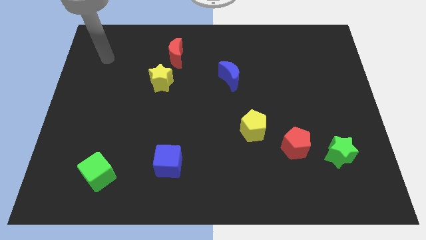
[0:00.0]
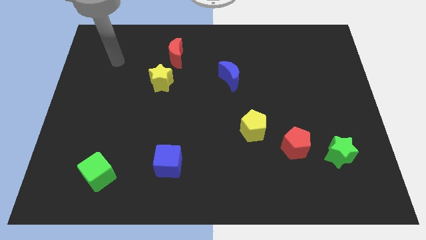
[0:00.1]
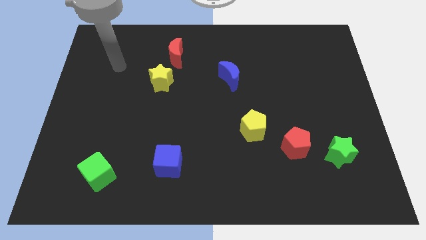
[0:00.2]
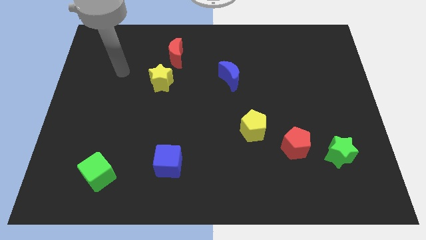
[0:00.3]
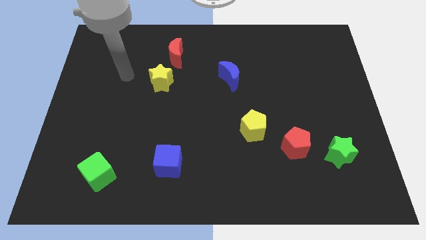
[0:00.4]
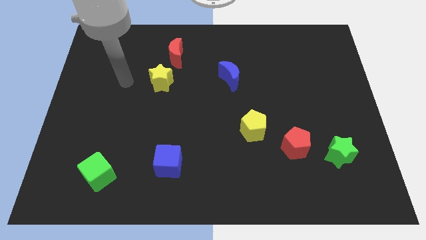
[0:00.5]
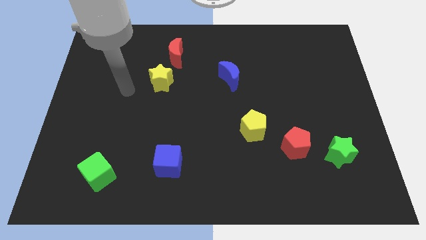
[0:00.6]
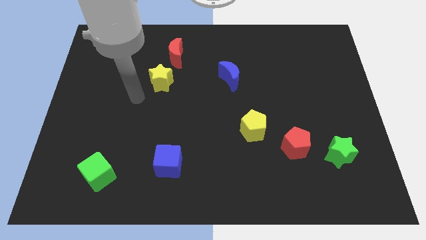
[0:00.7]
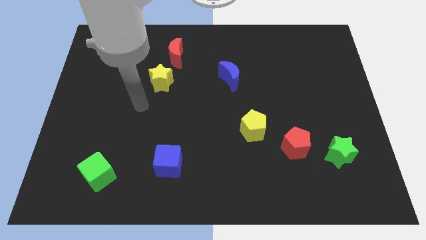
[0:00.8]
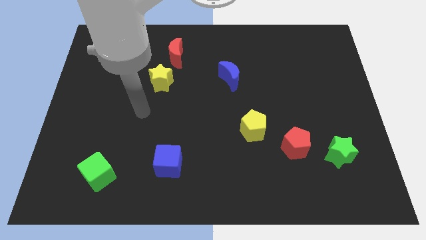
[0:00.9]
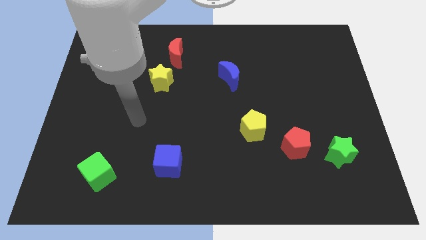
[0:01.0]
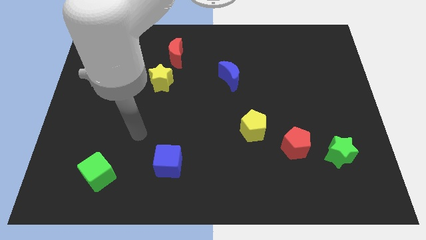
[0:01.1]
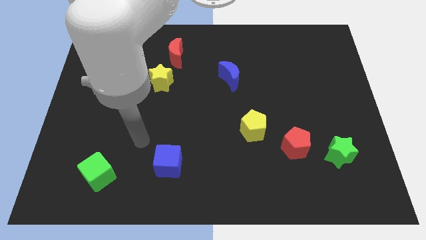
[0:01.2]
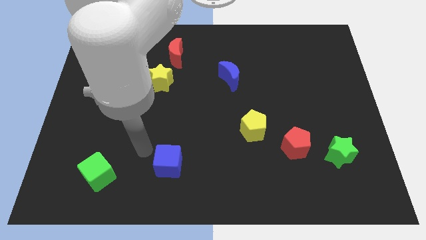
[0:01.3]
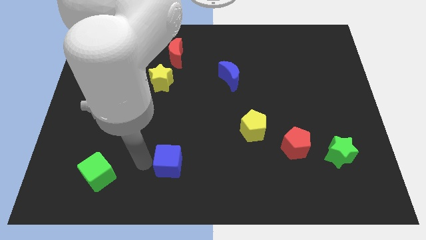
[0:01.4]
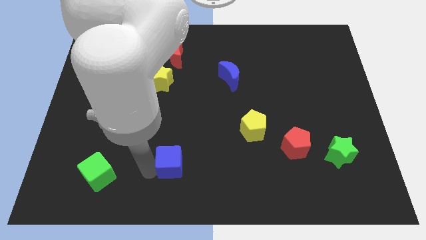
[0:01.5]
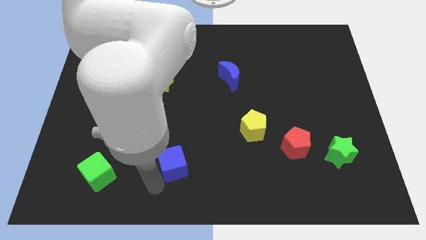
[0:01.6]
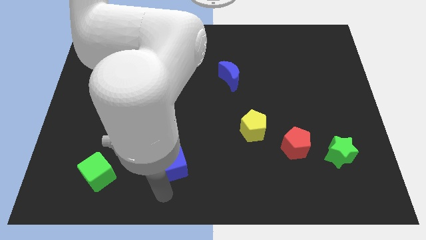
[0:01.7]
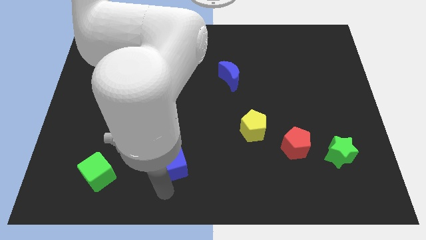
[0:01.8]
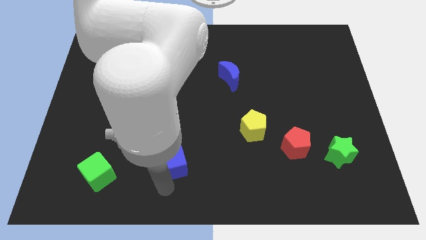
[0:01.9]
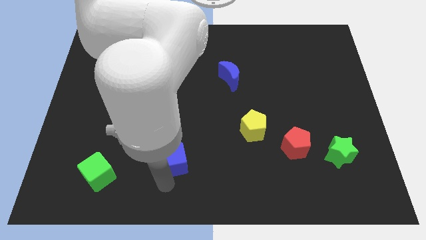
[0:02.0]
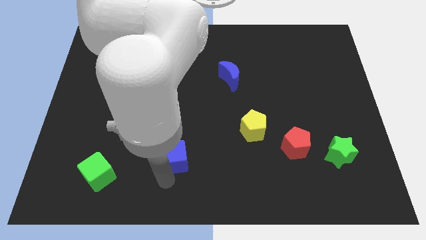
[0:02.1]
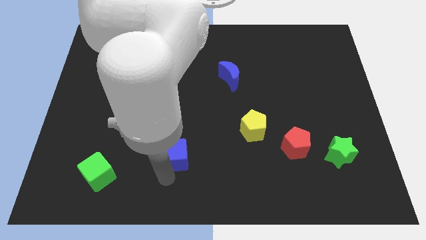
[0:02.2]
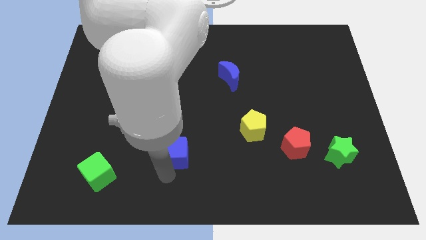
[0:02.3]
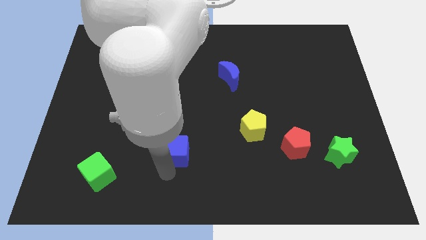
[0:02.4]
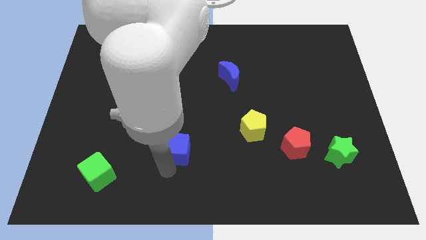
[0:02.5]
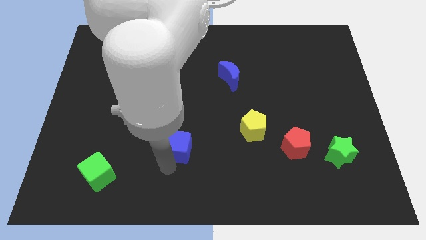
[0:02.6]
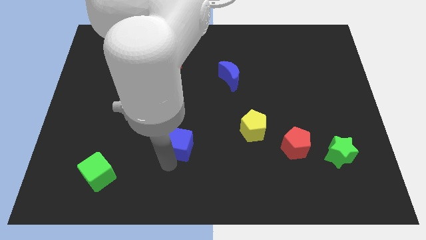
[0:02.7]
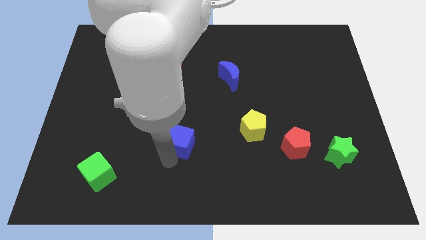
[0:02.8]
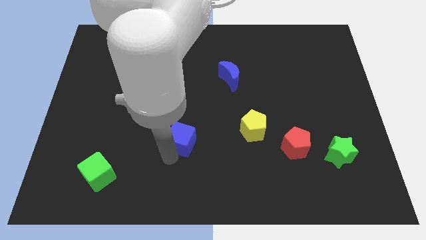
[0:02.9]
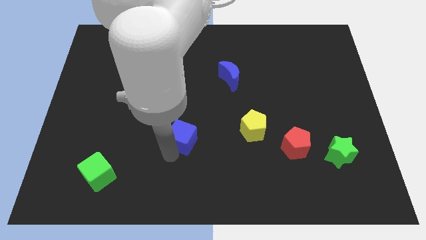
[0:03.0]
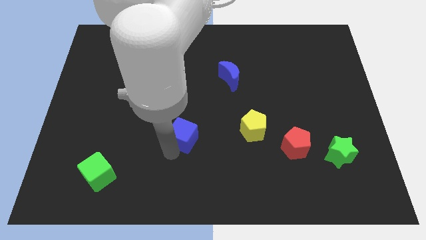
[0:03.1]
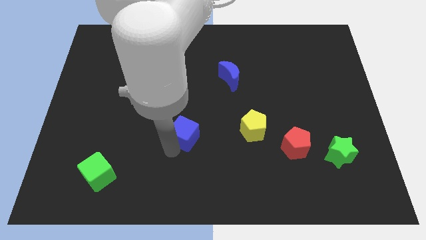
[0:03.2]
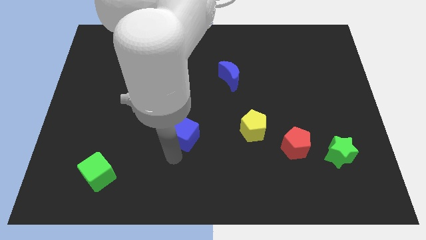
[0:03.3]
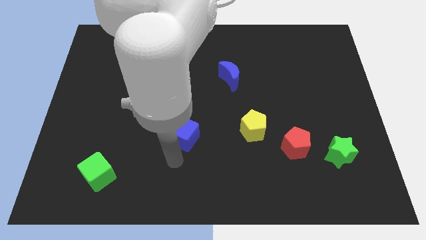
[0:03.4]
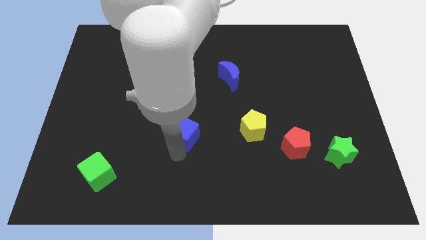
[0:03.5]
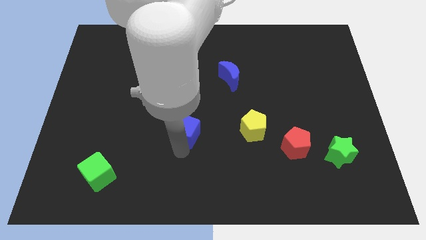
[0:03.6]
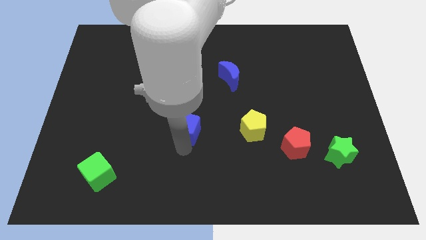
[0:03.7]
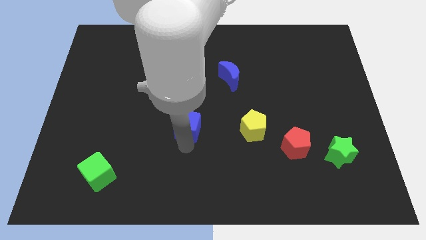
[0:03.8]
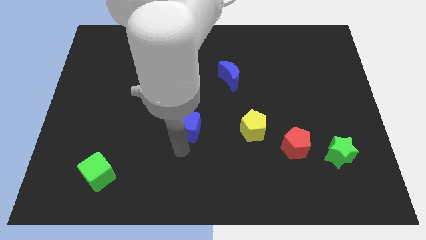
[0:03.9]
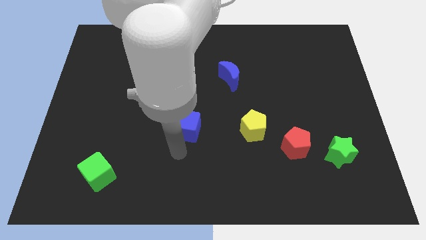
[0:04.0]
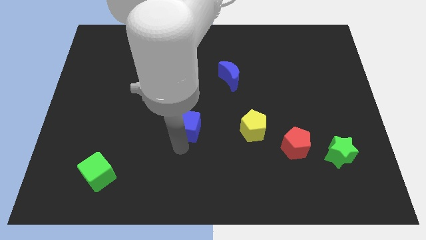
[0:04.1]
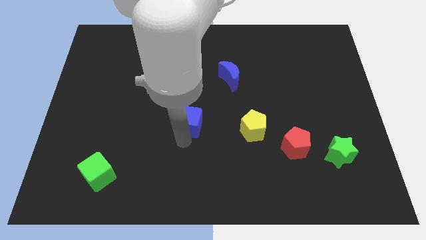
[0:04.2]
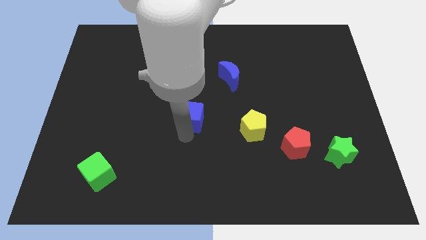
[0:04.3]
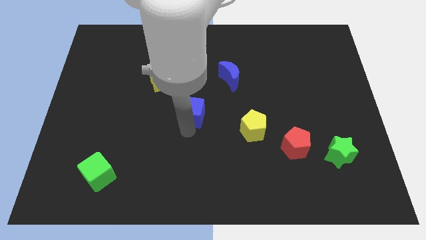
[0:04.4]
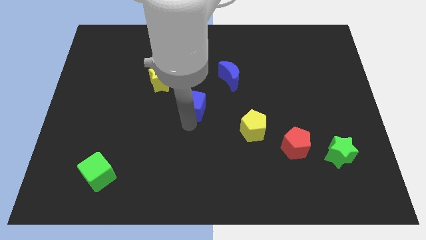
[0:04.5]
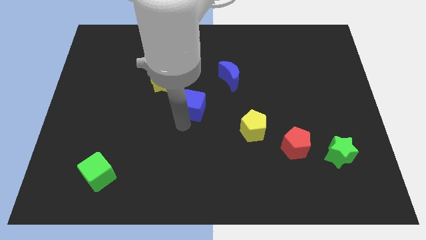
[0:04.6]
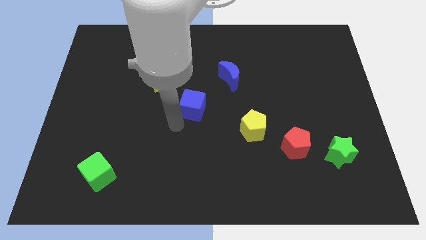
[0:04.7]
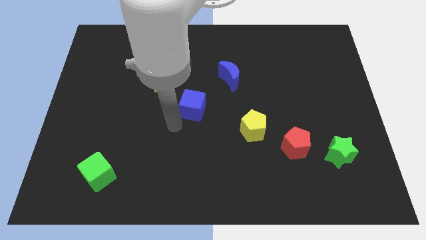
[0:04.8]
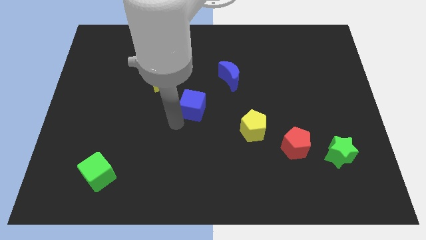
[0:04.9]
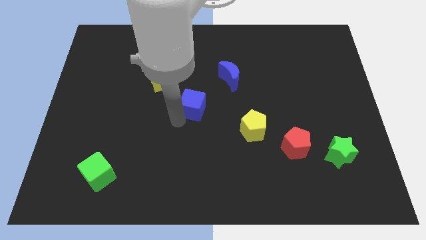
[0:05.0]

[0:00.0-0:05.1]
move the blue cube diagonally down and to the left of the blue moon

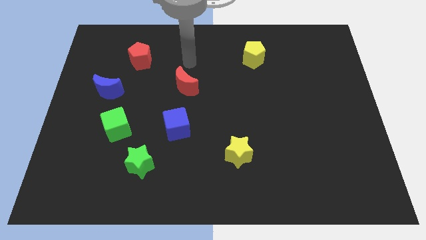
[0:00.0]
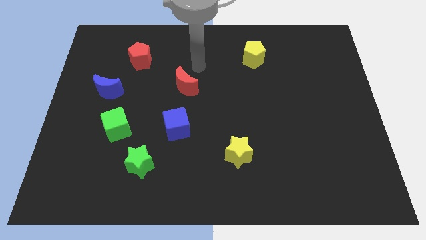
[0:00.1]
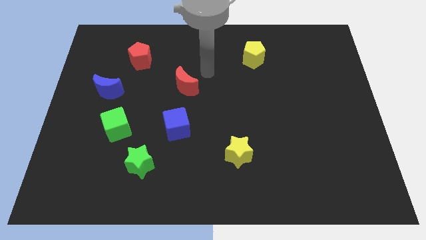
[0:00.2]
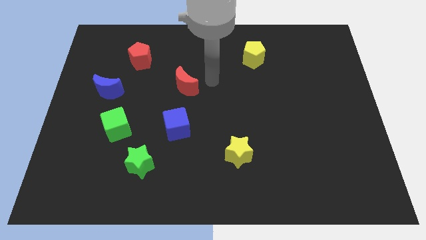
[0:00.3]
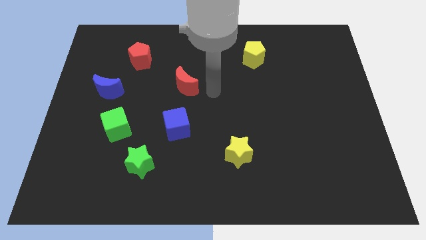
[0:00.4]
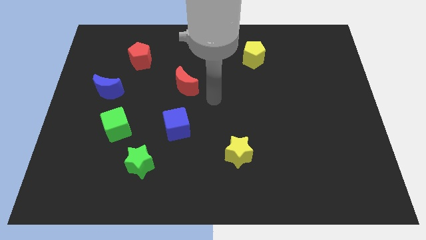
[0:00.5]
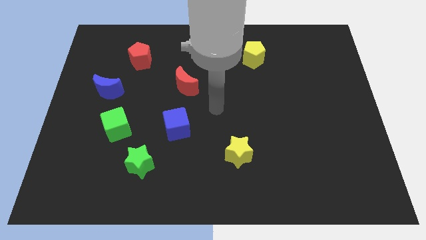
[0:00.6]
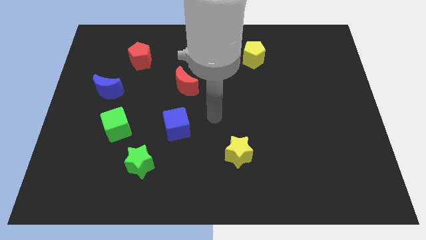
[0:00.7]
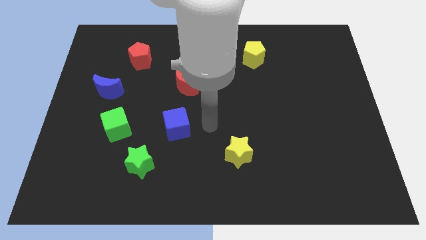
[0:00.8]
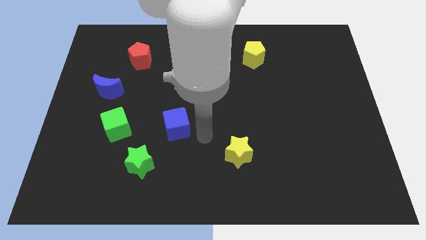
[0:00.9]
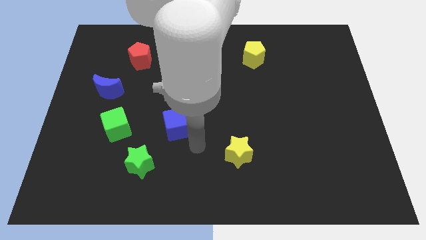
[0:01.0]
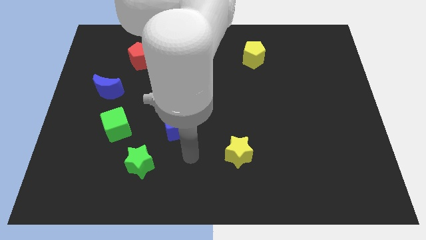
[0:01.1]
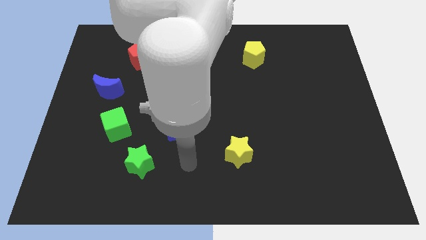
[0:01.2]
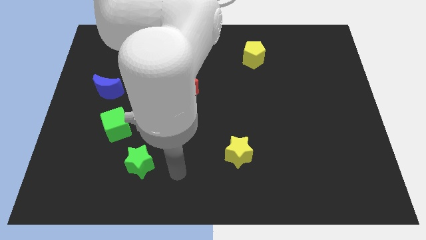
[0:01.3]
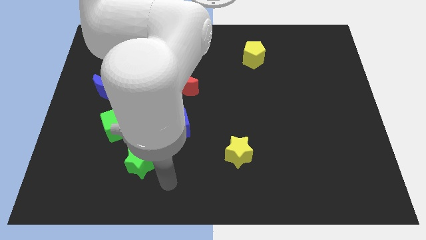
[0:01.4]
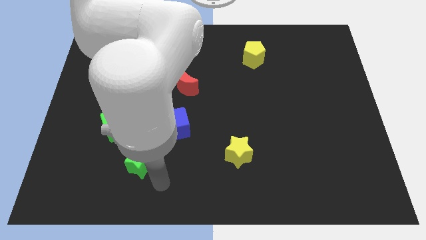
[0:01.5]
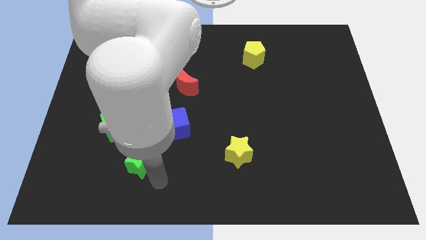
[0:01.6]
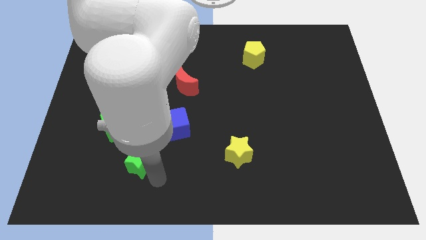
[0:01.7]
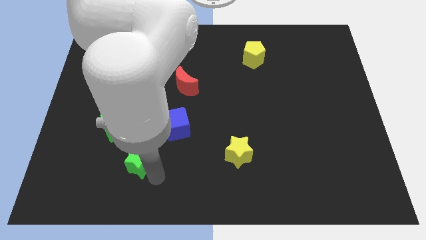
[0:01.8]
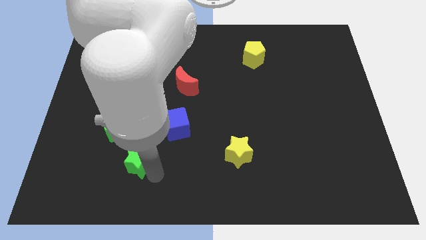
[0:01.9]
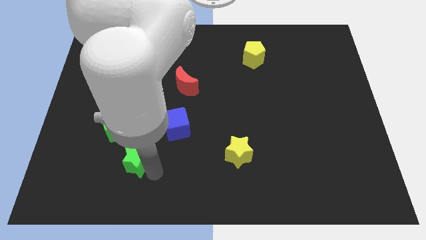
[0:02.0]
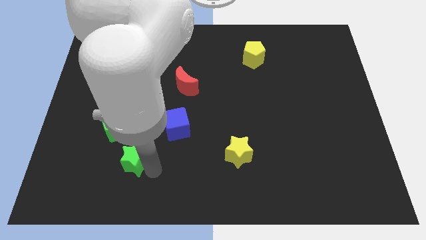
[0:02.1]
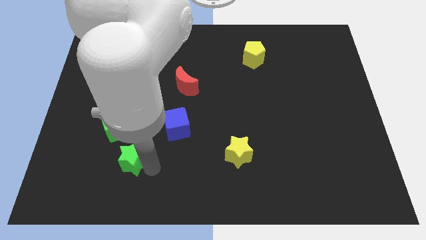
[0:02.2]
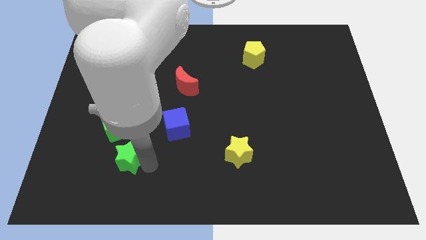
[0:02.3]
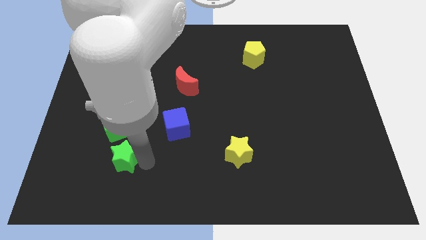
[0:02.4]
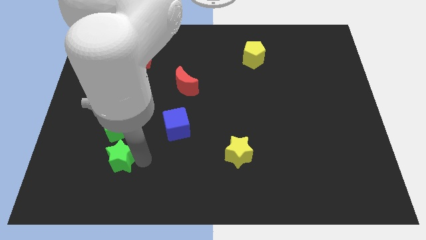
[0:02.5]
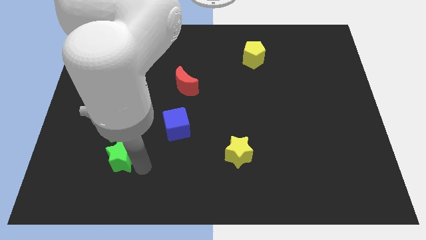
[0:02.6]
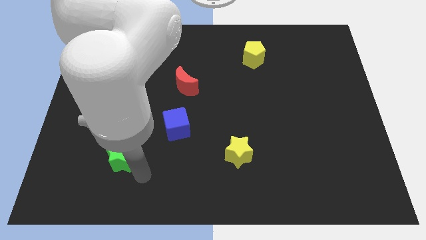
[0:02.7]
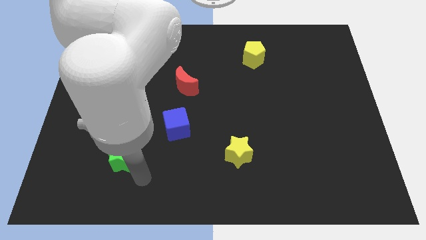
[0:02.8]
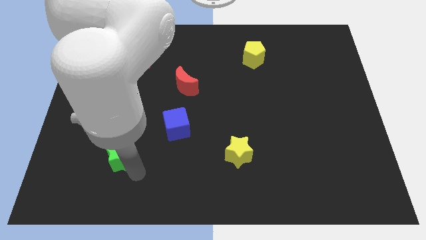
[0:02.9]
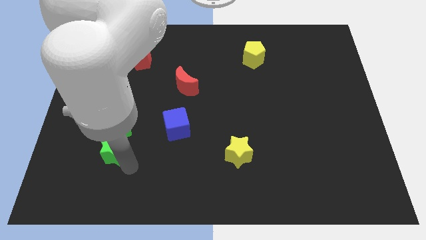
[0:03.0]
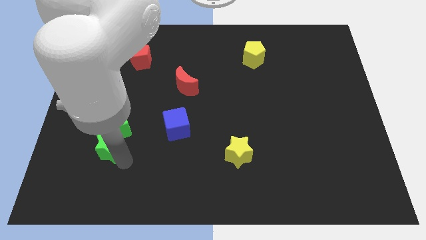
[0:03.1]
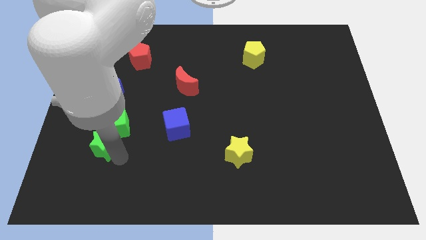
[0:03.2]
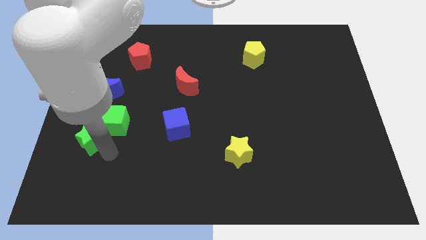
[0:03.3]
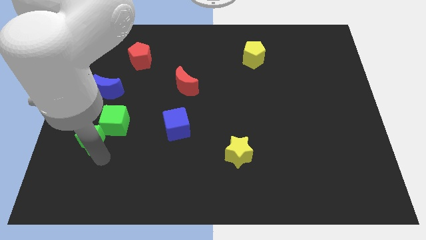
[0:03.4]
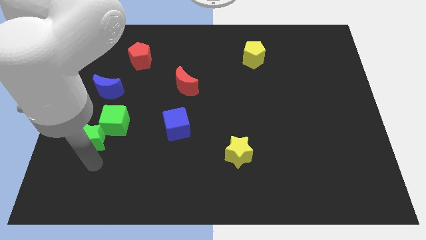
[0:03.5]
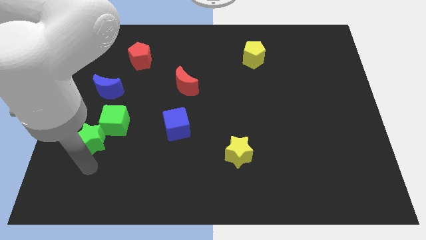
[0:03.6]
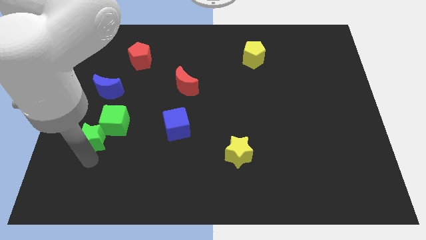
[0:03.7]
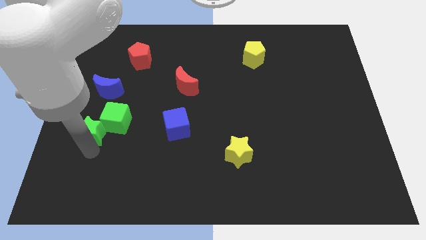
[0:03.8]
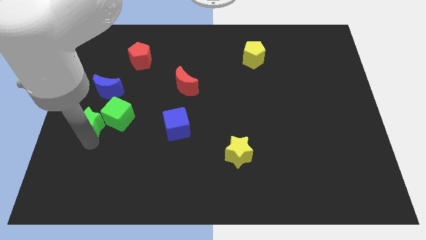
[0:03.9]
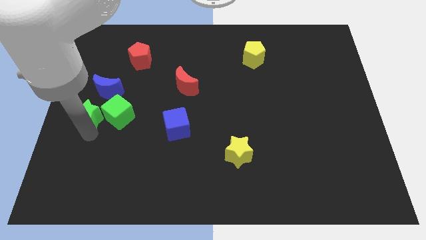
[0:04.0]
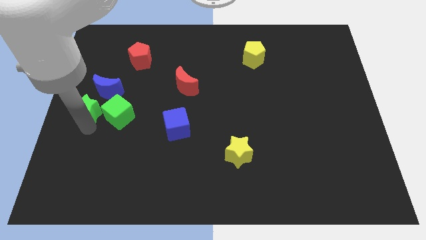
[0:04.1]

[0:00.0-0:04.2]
push the green star to the top left side of the green cube
